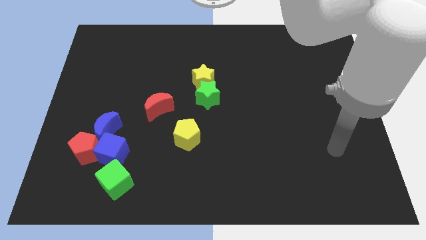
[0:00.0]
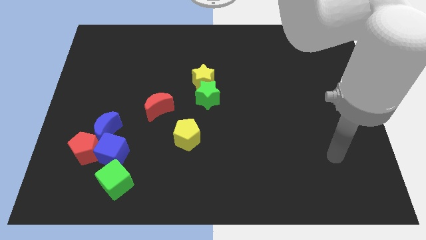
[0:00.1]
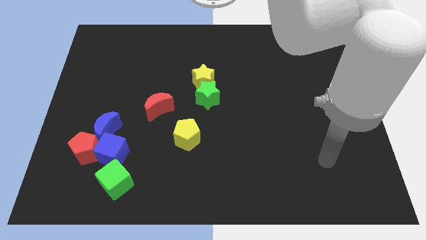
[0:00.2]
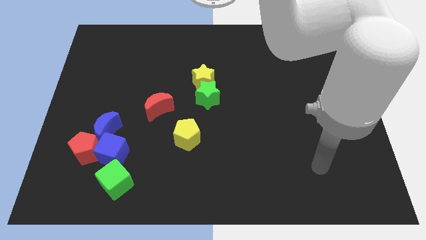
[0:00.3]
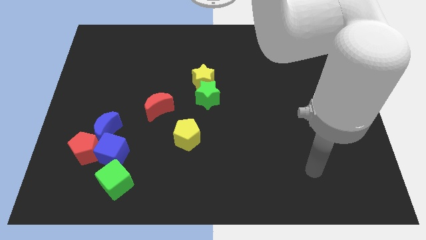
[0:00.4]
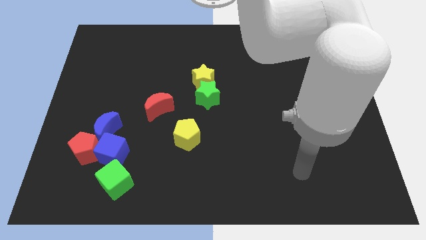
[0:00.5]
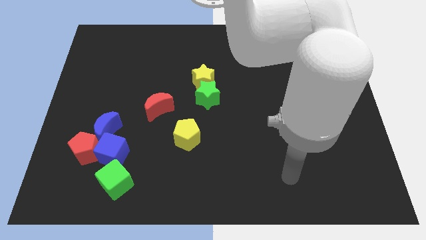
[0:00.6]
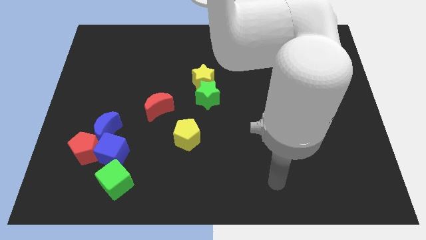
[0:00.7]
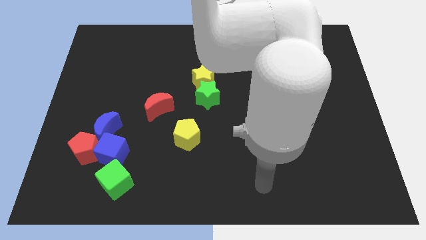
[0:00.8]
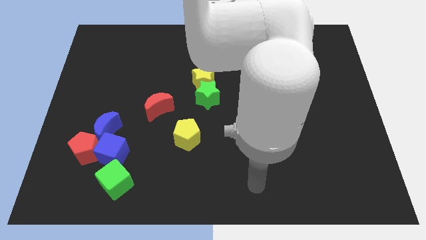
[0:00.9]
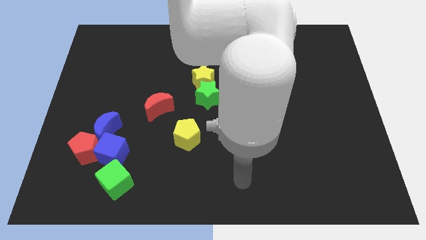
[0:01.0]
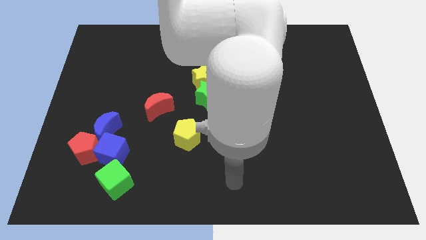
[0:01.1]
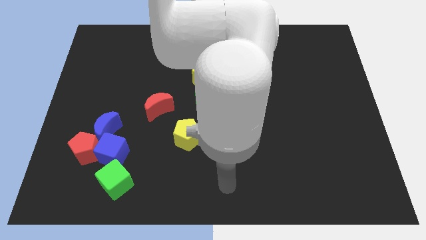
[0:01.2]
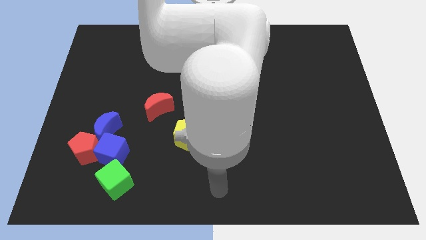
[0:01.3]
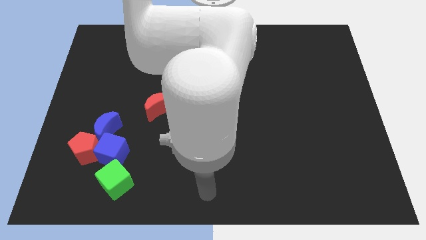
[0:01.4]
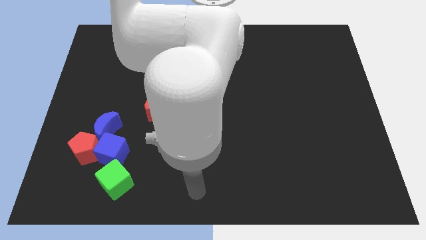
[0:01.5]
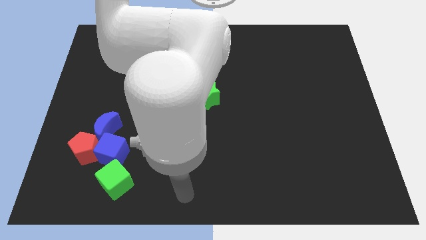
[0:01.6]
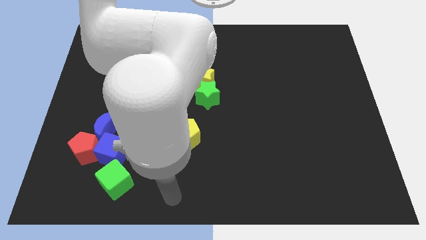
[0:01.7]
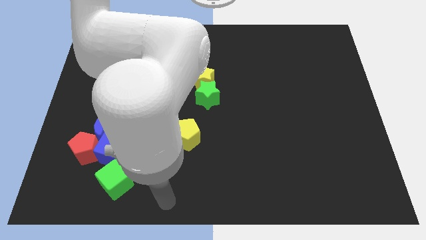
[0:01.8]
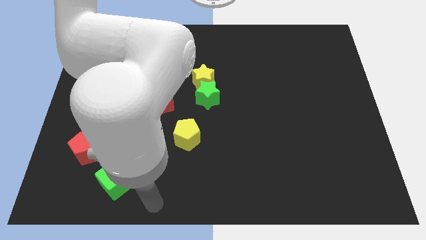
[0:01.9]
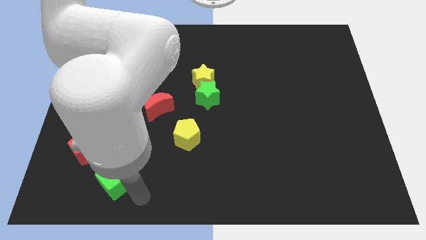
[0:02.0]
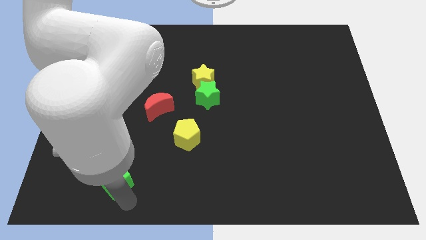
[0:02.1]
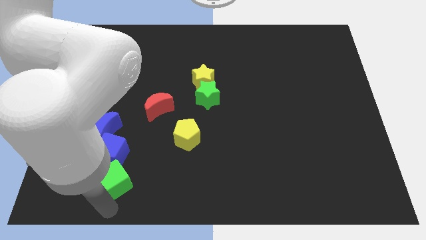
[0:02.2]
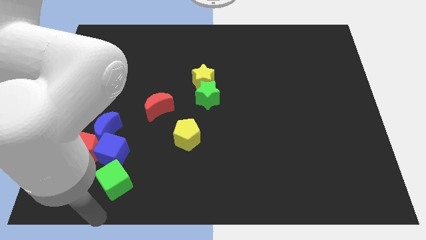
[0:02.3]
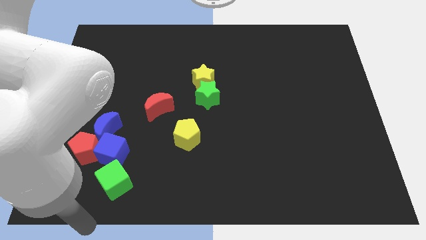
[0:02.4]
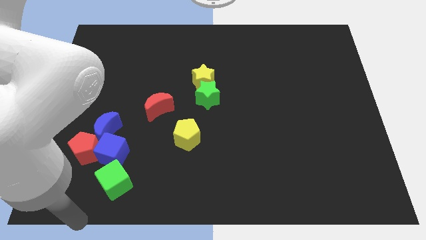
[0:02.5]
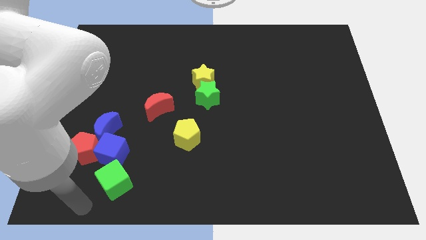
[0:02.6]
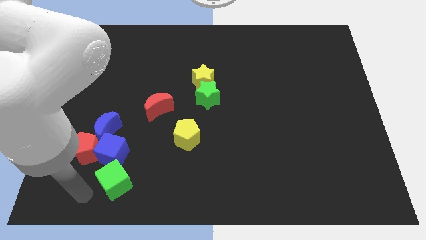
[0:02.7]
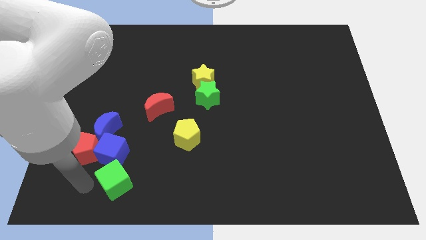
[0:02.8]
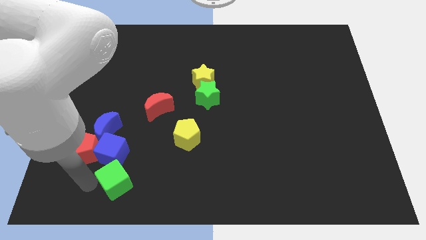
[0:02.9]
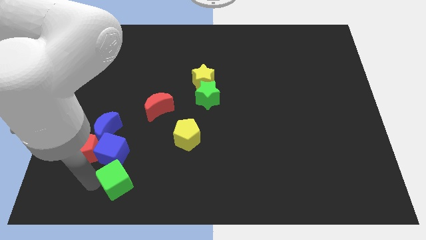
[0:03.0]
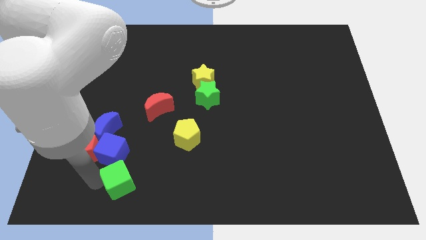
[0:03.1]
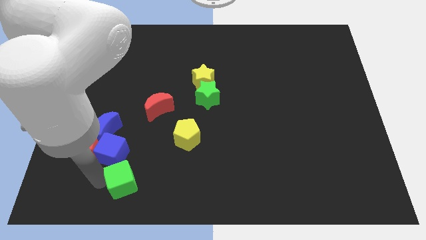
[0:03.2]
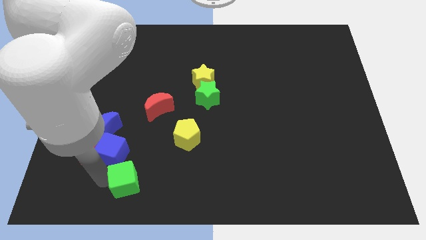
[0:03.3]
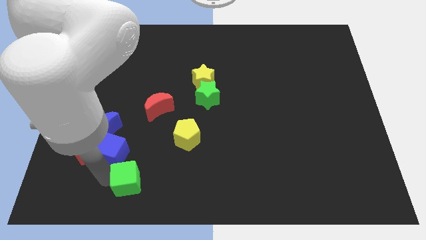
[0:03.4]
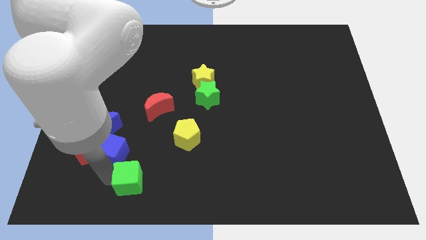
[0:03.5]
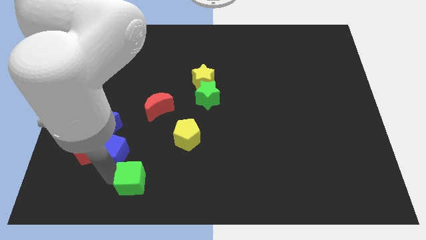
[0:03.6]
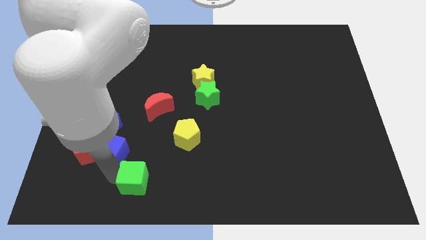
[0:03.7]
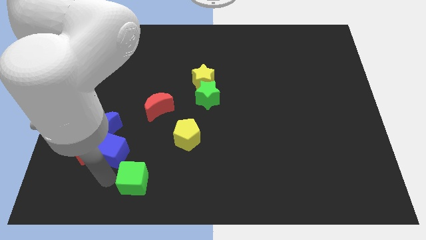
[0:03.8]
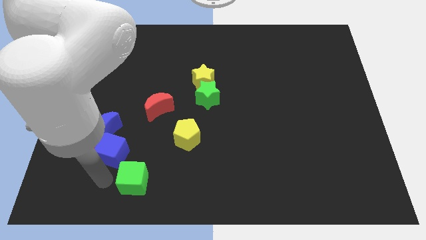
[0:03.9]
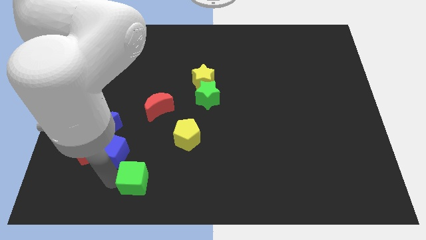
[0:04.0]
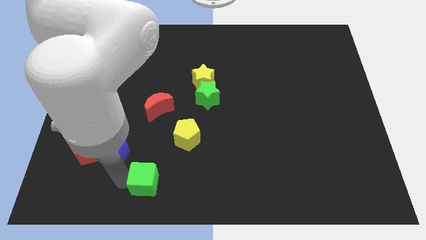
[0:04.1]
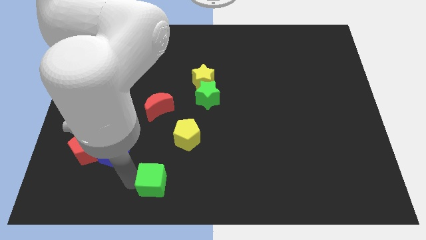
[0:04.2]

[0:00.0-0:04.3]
push the green cube right a bit

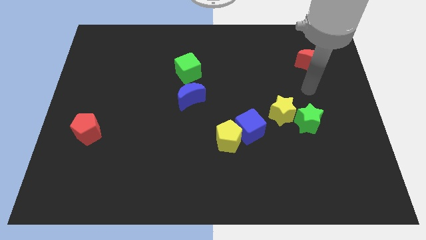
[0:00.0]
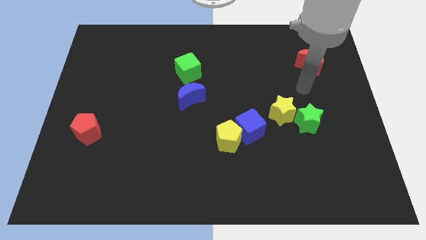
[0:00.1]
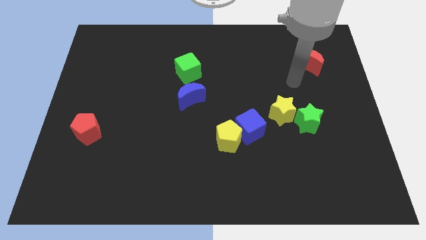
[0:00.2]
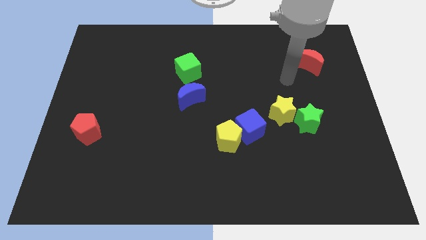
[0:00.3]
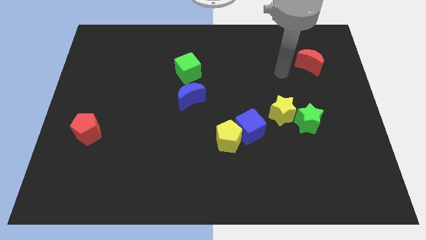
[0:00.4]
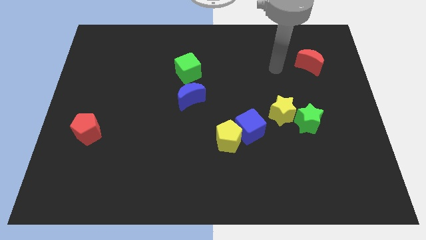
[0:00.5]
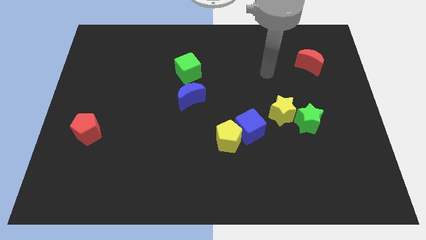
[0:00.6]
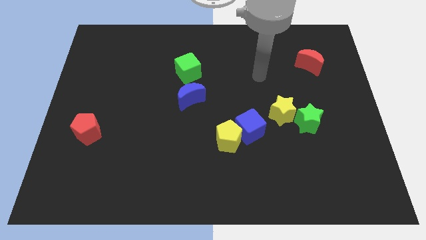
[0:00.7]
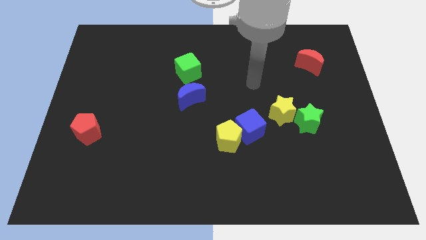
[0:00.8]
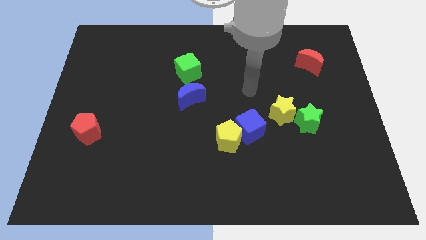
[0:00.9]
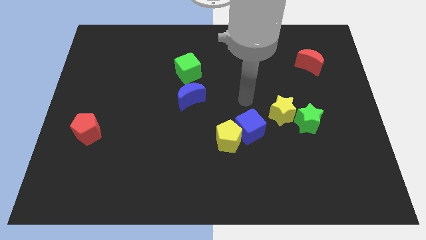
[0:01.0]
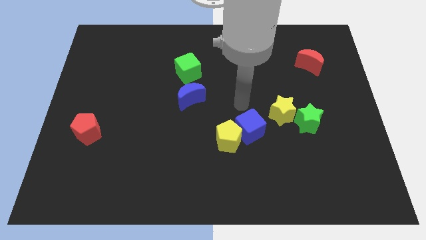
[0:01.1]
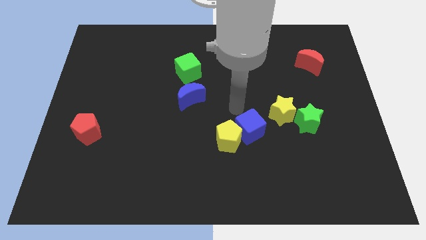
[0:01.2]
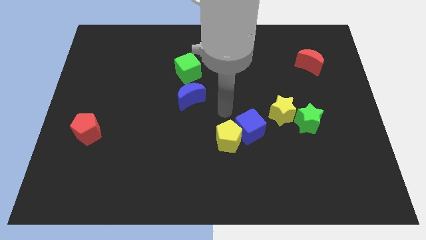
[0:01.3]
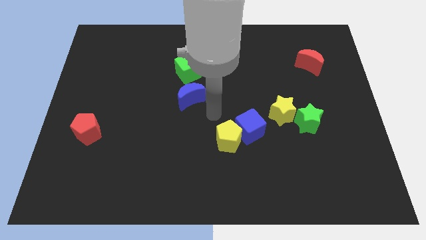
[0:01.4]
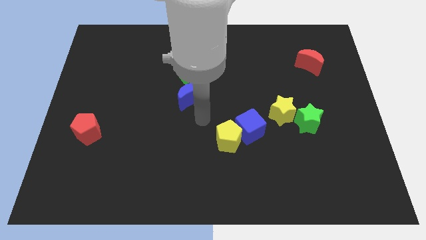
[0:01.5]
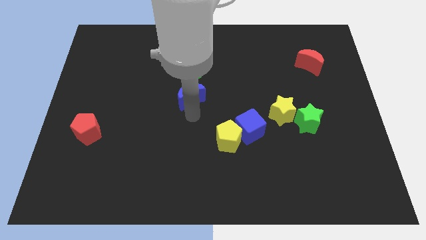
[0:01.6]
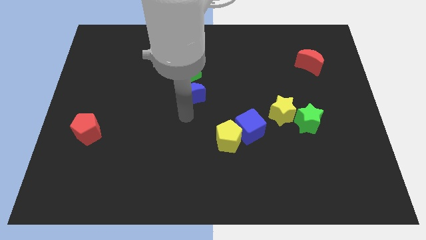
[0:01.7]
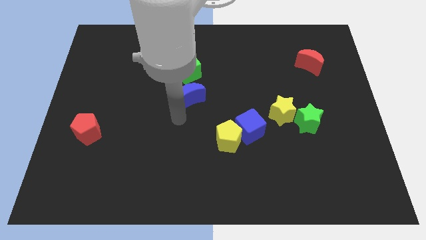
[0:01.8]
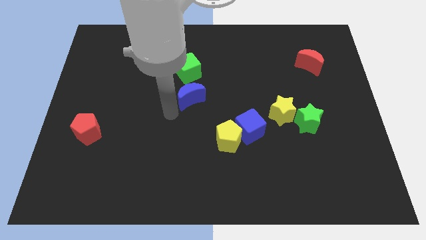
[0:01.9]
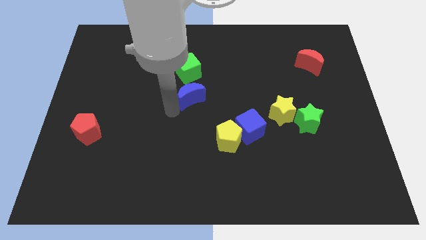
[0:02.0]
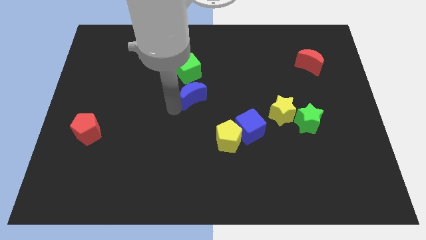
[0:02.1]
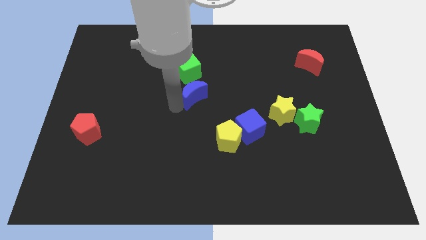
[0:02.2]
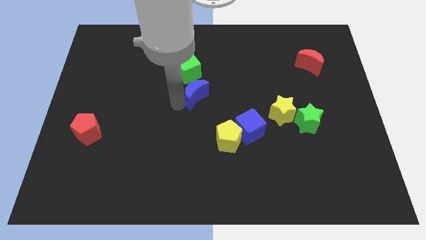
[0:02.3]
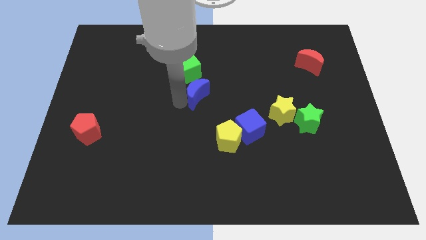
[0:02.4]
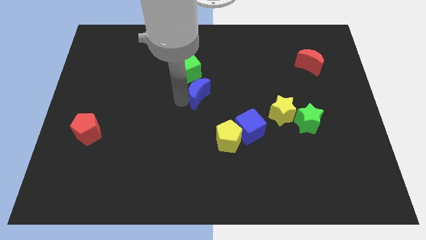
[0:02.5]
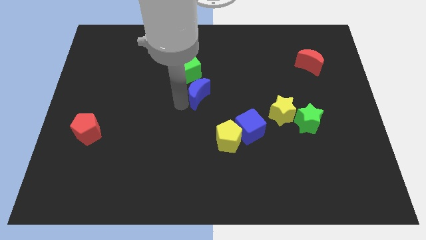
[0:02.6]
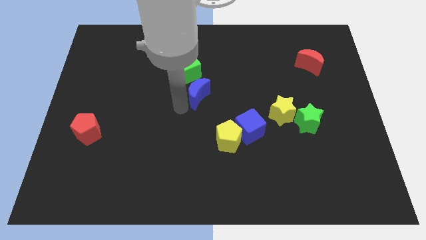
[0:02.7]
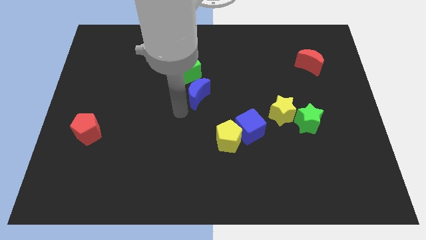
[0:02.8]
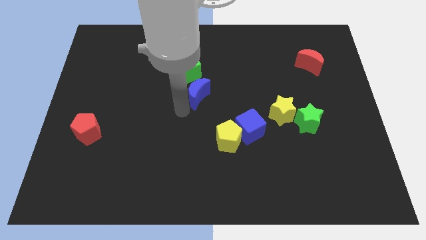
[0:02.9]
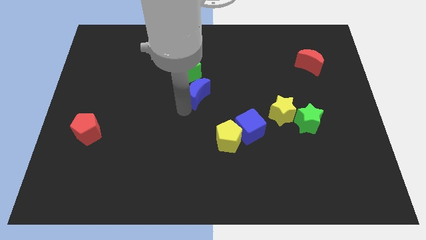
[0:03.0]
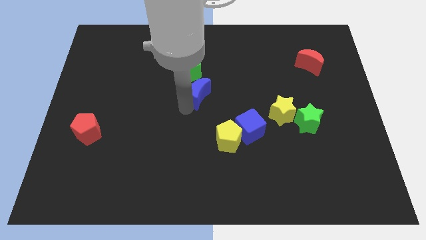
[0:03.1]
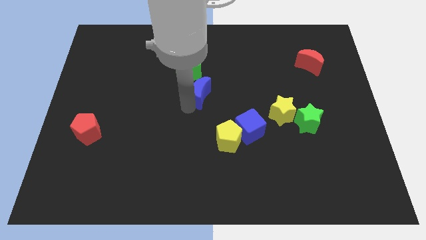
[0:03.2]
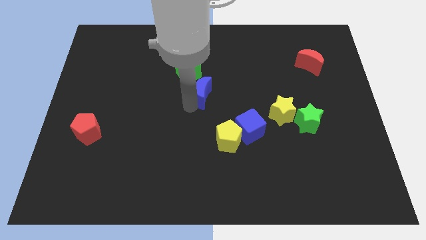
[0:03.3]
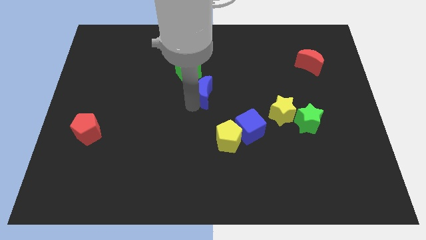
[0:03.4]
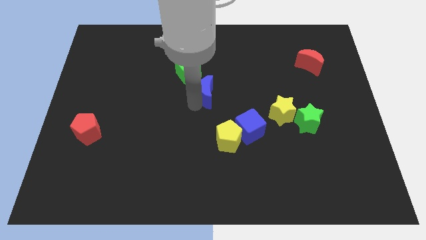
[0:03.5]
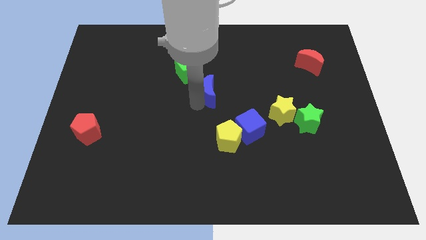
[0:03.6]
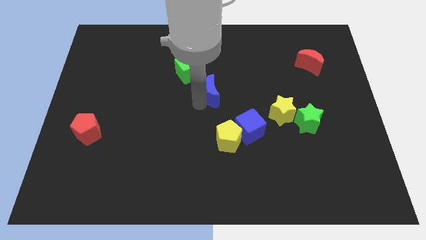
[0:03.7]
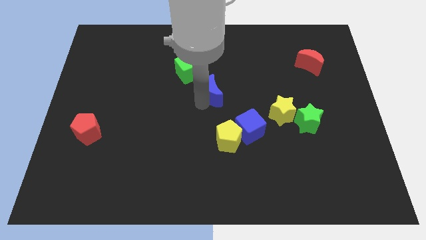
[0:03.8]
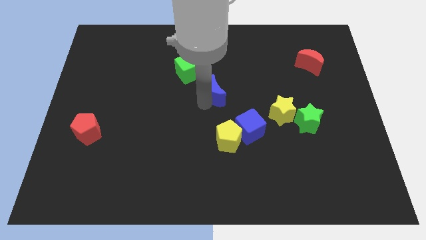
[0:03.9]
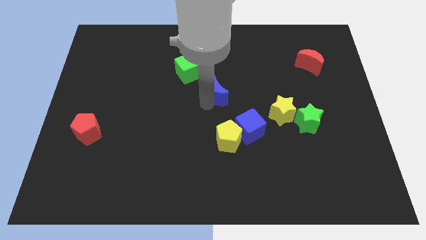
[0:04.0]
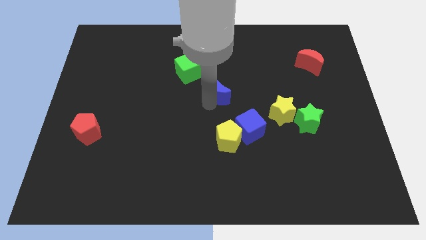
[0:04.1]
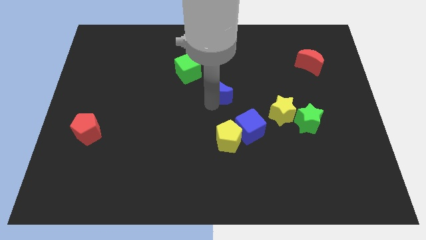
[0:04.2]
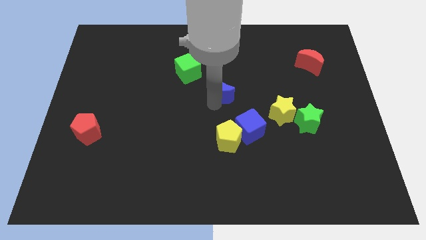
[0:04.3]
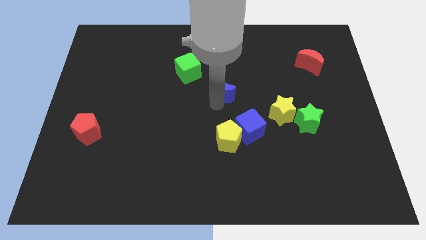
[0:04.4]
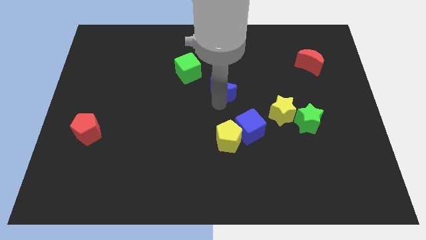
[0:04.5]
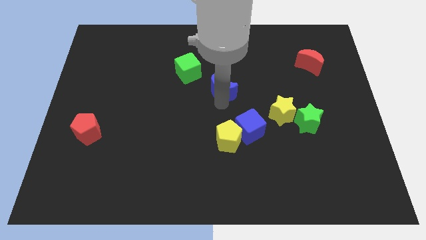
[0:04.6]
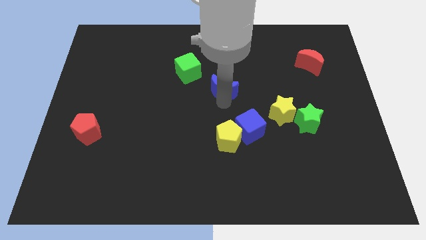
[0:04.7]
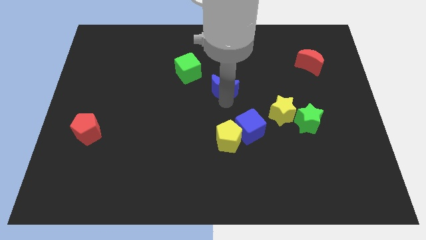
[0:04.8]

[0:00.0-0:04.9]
slightly slide the blue moon upwards and to the right diagonally
